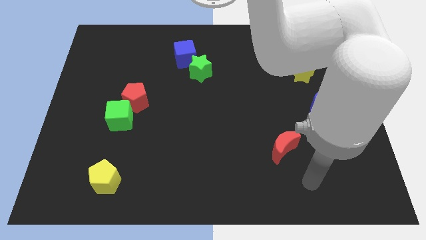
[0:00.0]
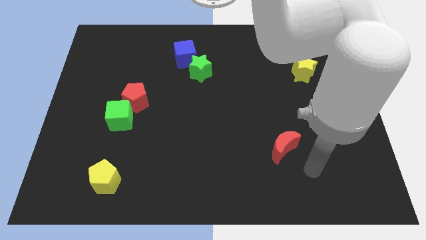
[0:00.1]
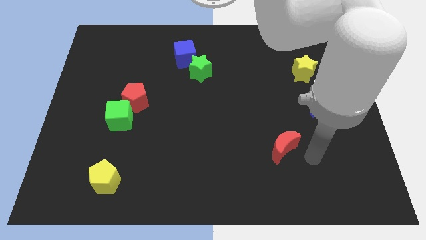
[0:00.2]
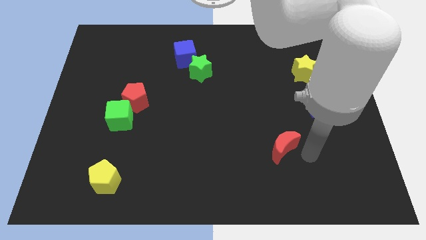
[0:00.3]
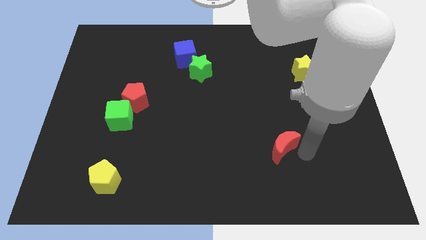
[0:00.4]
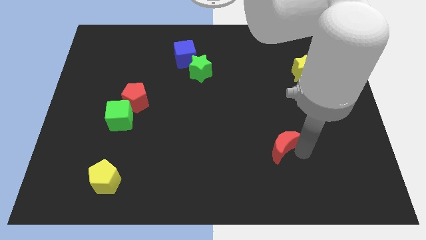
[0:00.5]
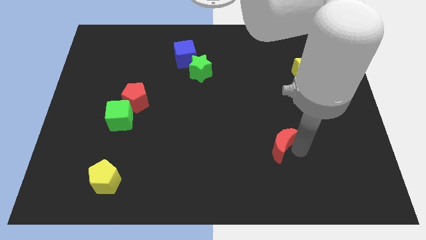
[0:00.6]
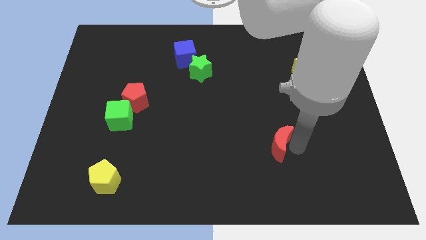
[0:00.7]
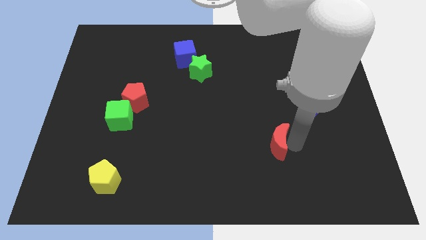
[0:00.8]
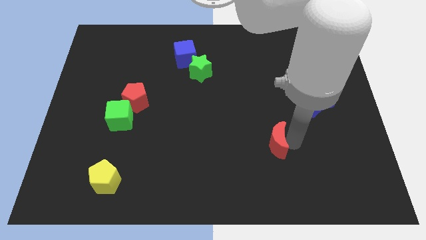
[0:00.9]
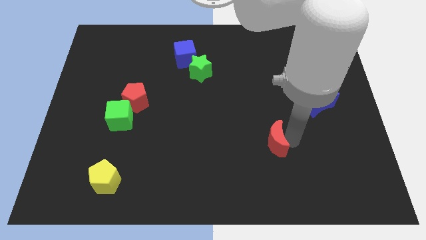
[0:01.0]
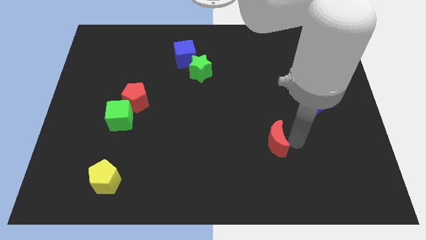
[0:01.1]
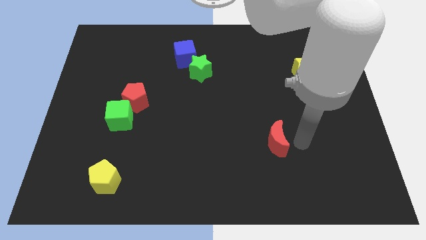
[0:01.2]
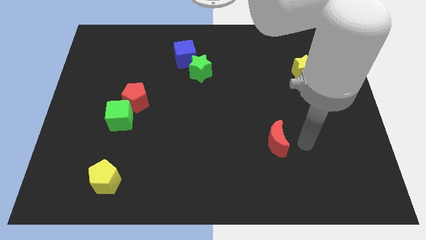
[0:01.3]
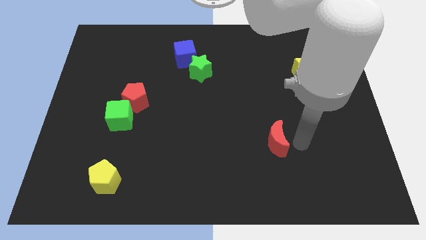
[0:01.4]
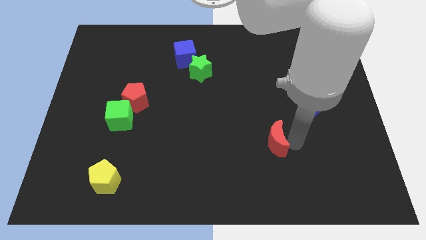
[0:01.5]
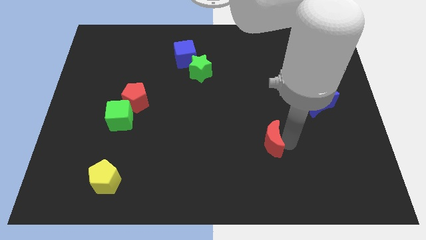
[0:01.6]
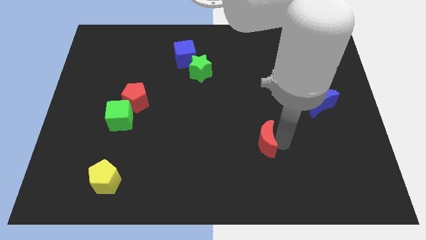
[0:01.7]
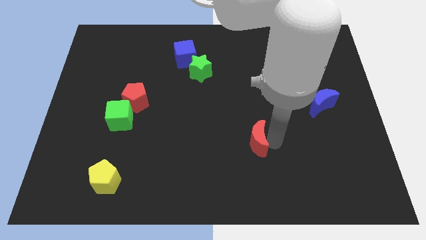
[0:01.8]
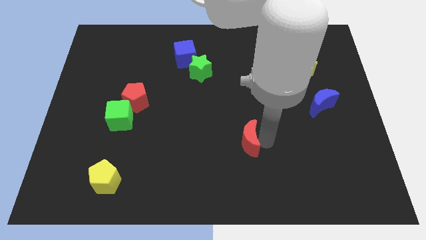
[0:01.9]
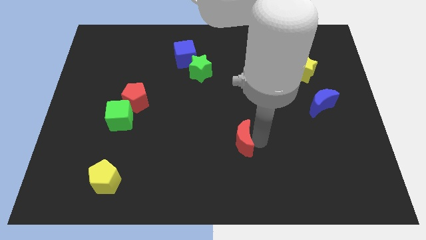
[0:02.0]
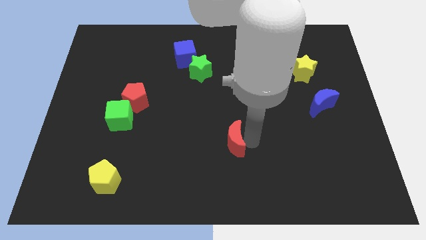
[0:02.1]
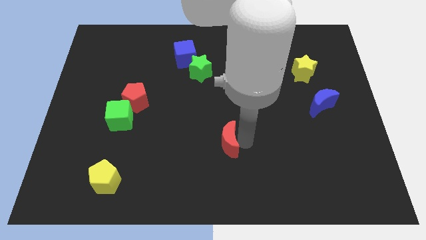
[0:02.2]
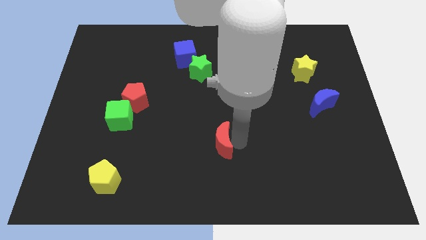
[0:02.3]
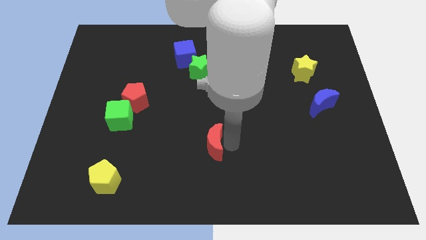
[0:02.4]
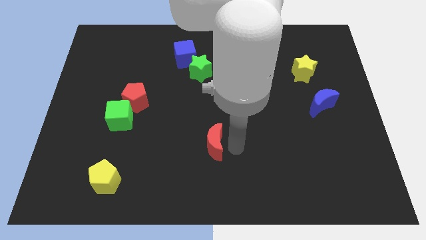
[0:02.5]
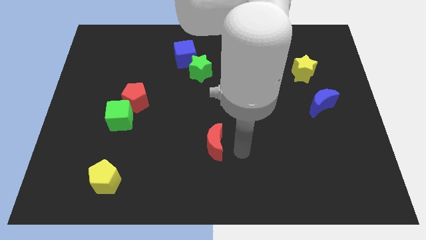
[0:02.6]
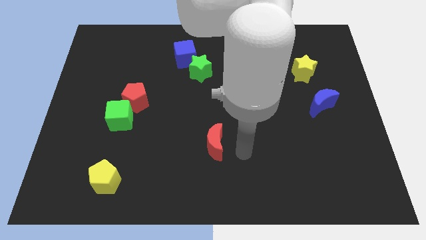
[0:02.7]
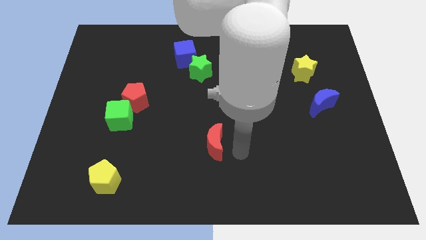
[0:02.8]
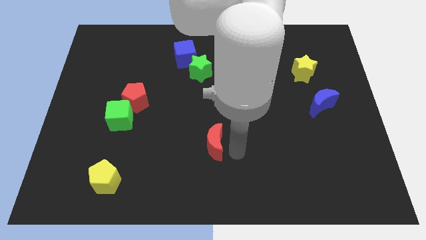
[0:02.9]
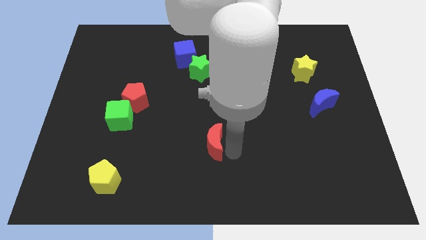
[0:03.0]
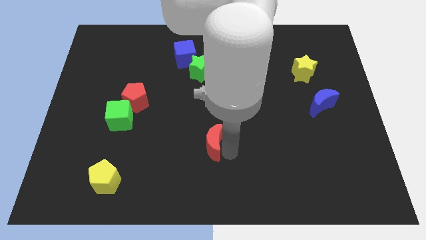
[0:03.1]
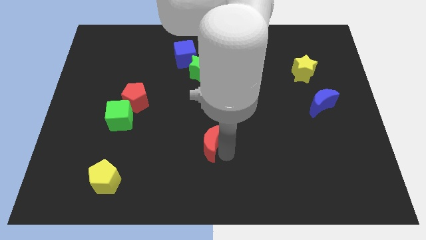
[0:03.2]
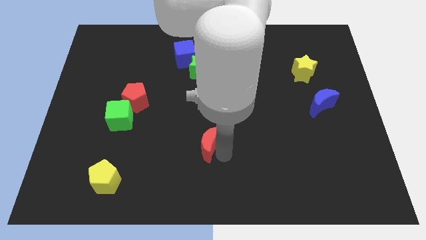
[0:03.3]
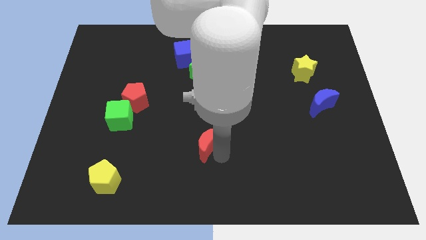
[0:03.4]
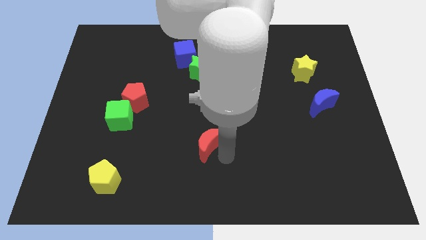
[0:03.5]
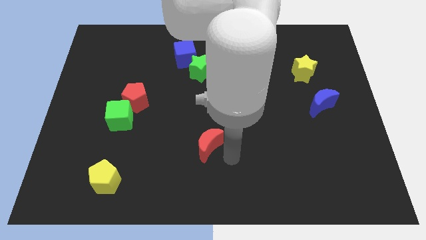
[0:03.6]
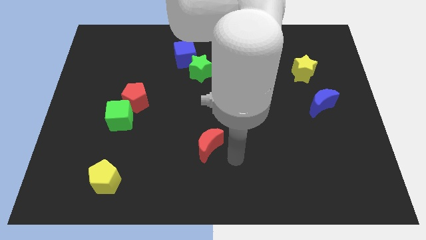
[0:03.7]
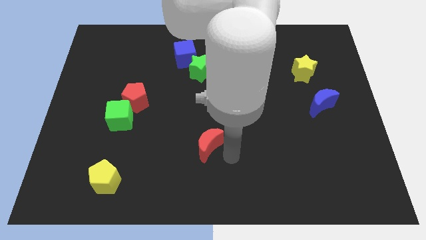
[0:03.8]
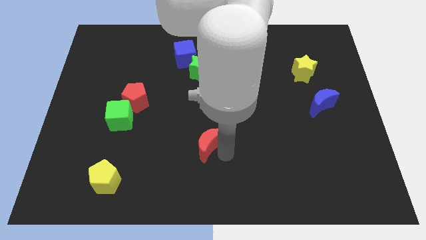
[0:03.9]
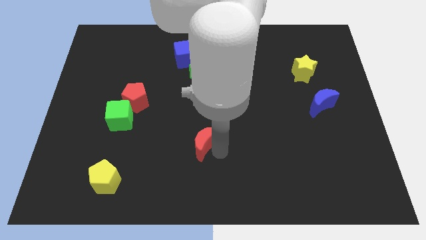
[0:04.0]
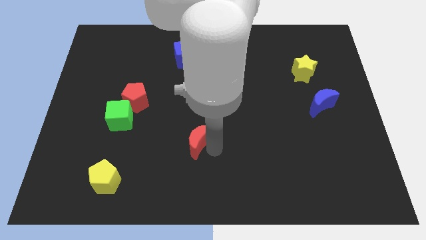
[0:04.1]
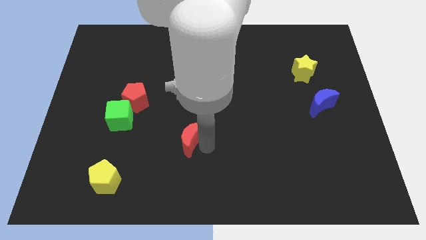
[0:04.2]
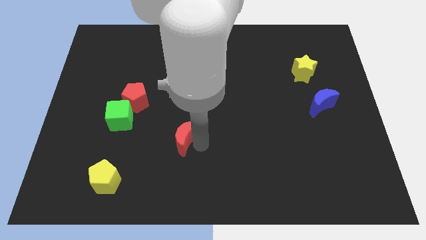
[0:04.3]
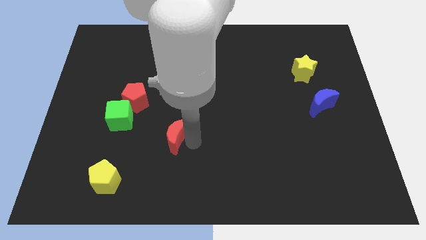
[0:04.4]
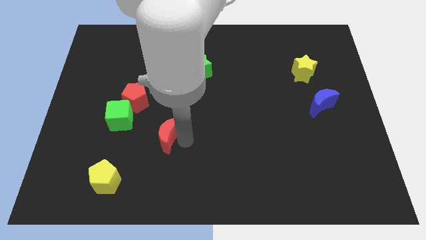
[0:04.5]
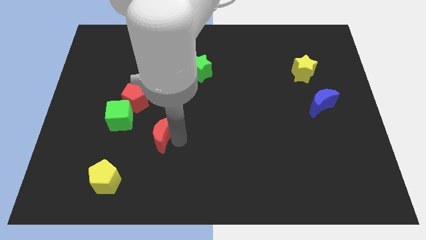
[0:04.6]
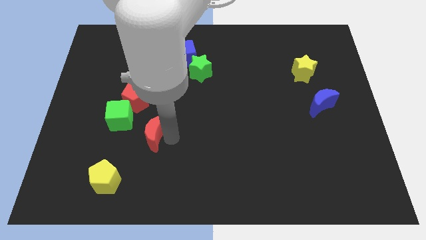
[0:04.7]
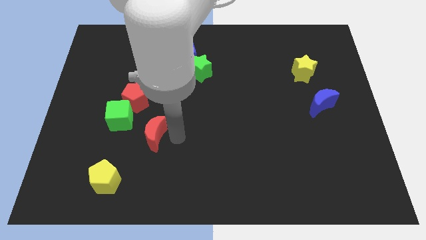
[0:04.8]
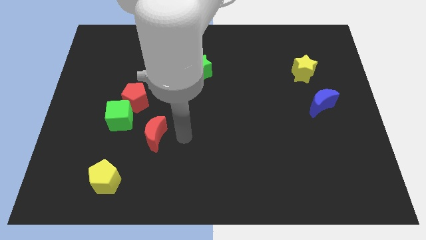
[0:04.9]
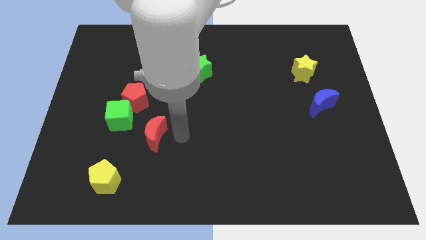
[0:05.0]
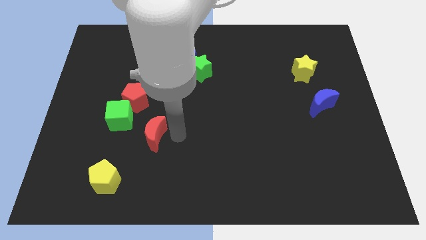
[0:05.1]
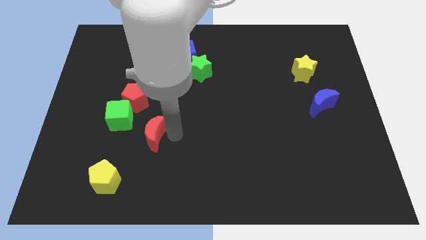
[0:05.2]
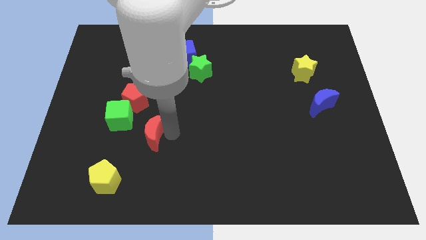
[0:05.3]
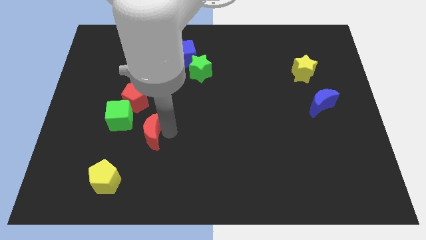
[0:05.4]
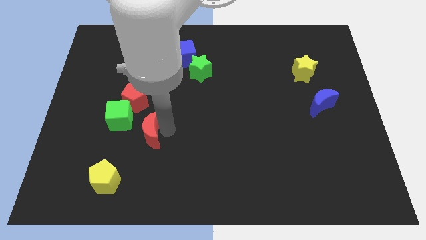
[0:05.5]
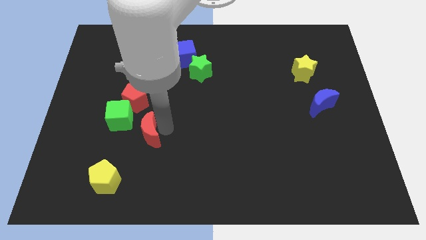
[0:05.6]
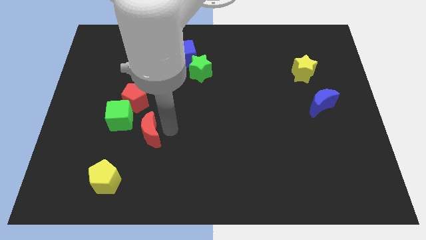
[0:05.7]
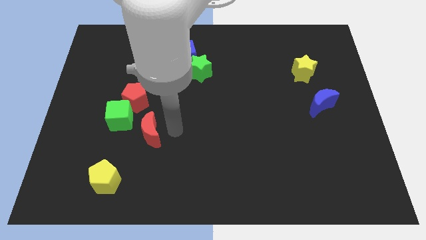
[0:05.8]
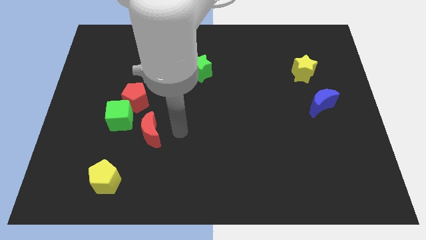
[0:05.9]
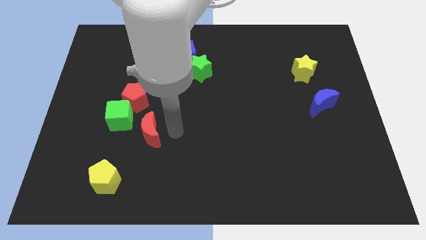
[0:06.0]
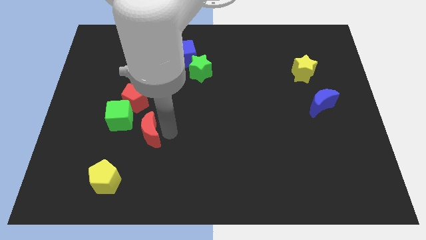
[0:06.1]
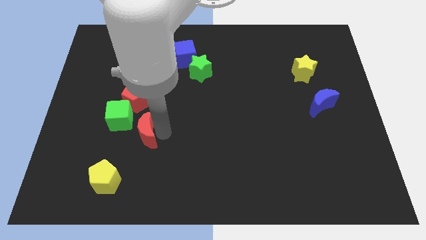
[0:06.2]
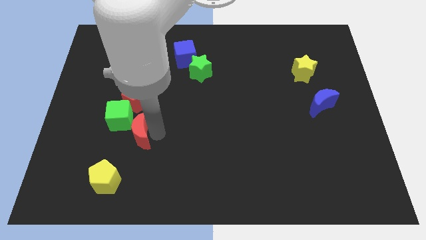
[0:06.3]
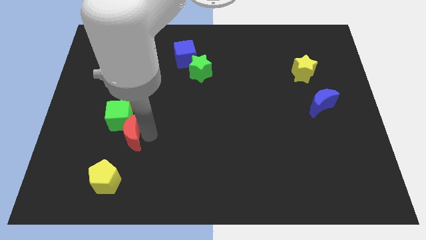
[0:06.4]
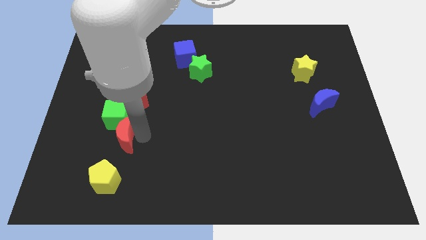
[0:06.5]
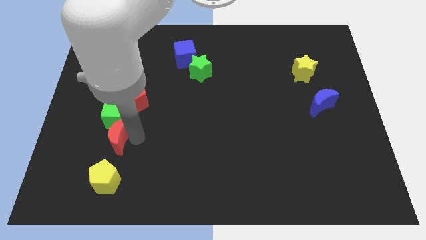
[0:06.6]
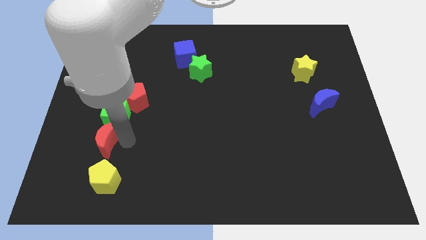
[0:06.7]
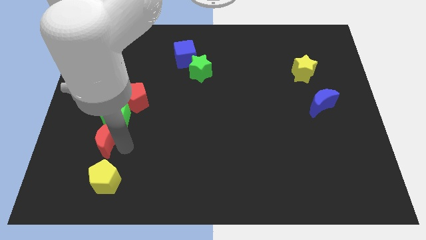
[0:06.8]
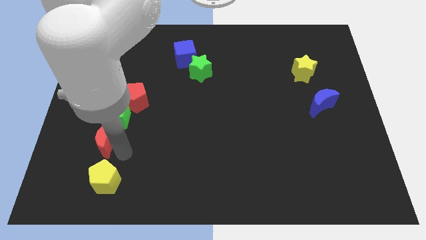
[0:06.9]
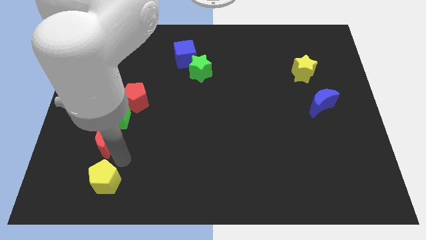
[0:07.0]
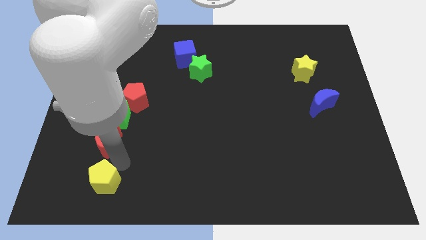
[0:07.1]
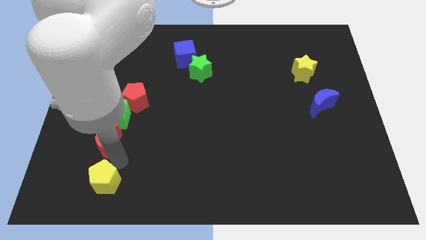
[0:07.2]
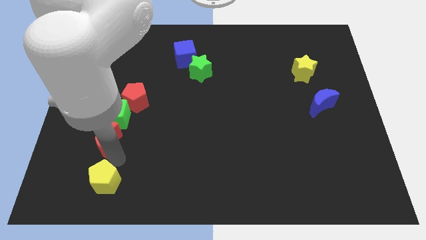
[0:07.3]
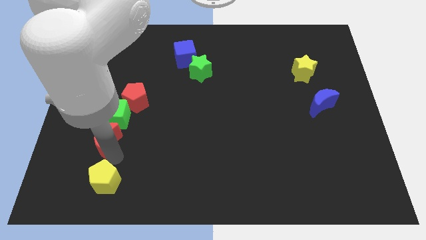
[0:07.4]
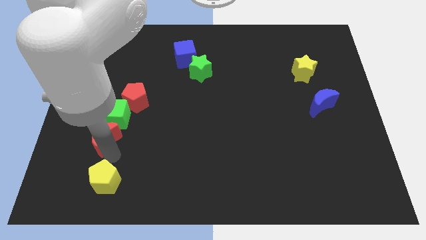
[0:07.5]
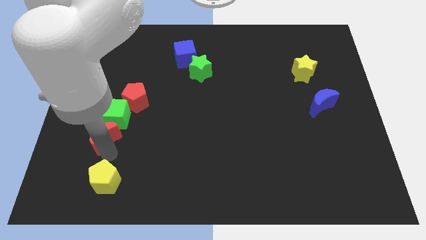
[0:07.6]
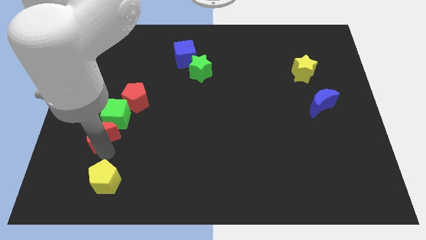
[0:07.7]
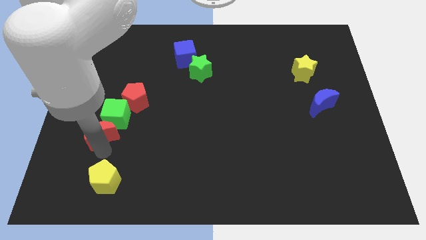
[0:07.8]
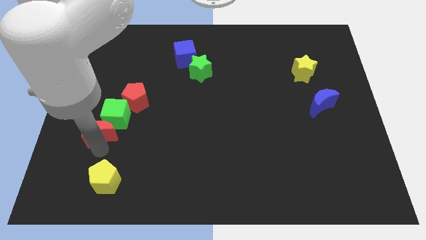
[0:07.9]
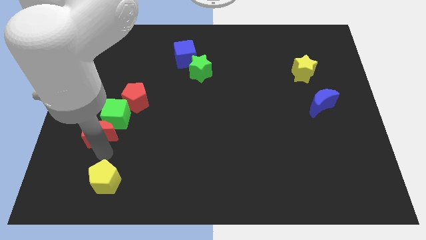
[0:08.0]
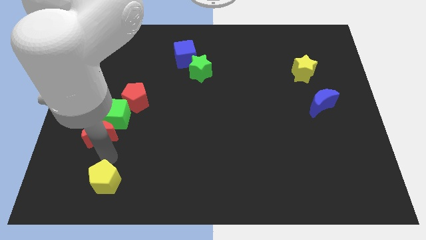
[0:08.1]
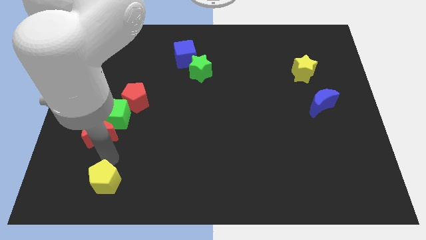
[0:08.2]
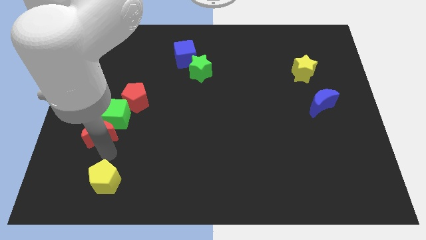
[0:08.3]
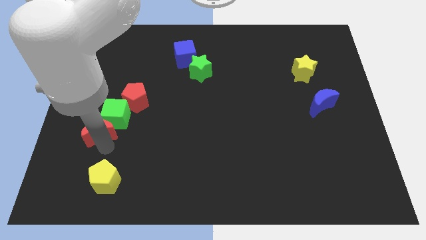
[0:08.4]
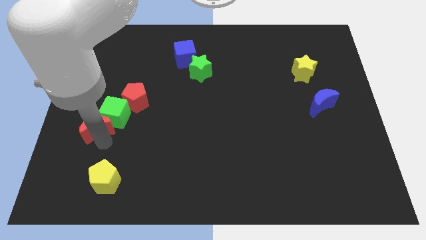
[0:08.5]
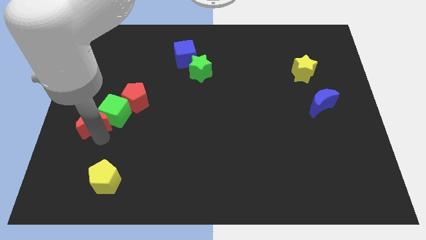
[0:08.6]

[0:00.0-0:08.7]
push the red moon to the left side of the board
